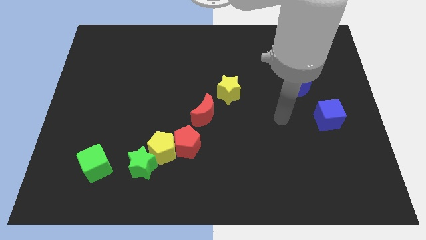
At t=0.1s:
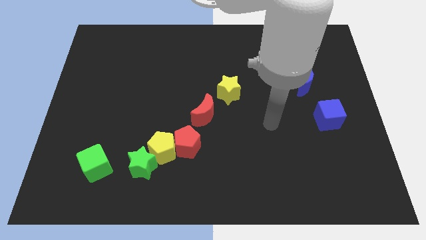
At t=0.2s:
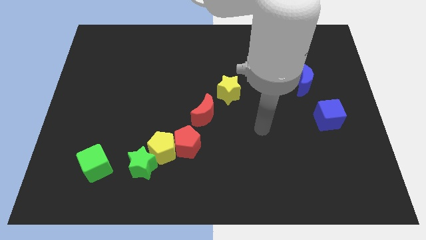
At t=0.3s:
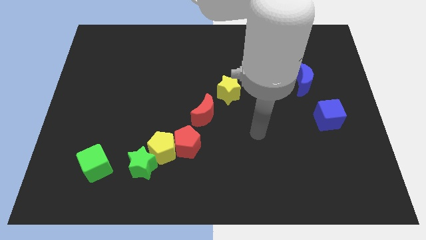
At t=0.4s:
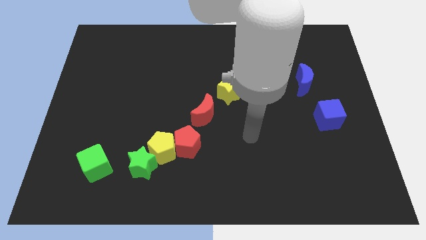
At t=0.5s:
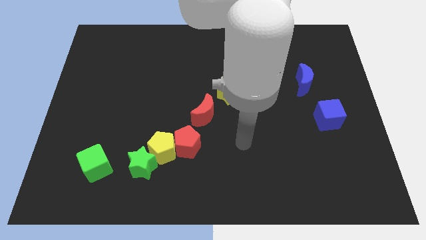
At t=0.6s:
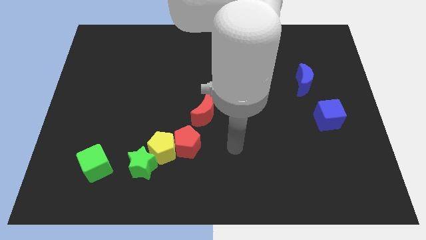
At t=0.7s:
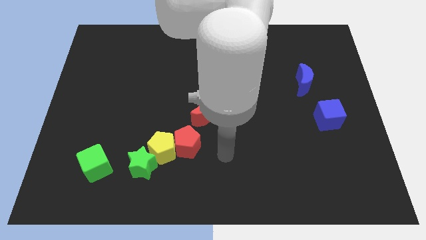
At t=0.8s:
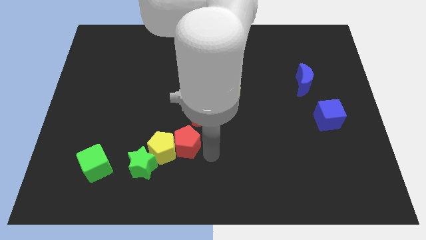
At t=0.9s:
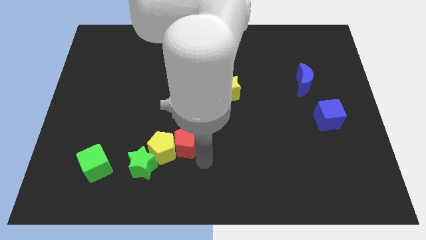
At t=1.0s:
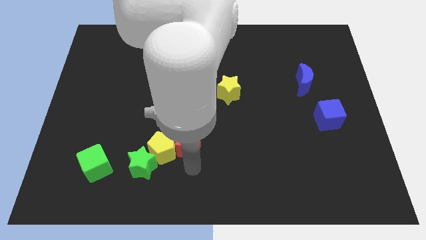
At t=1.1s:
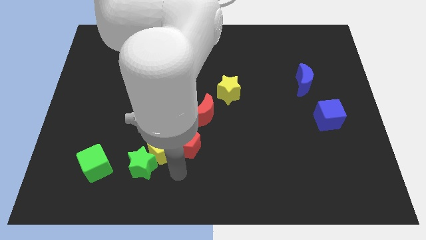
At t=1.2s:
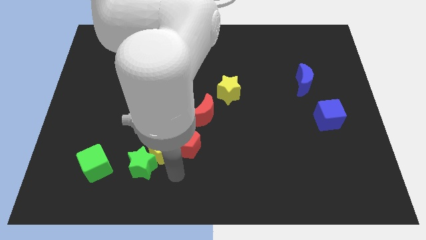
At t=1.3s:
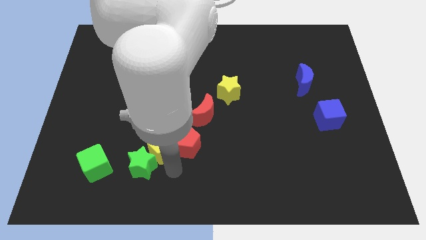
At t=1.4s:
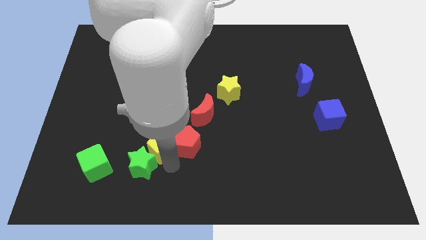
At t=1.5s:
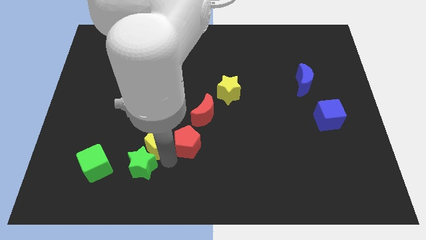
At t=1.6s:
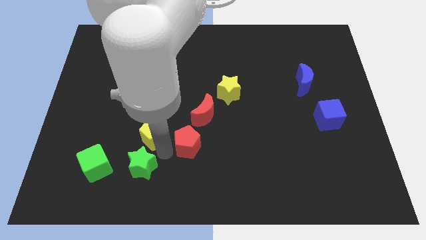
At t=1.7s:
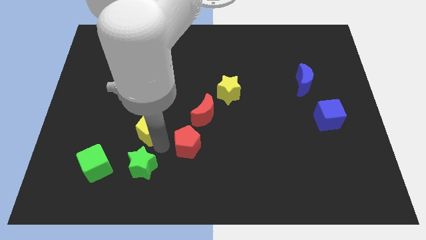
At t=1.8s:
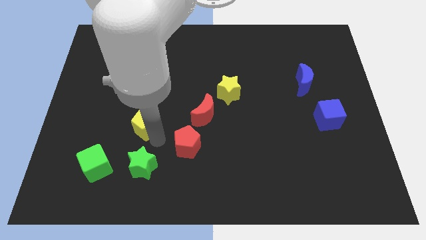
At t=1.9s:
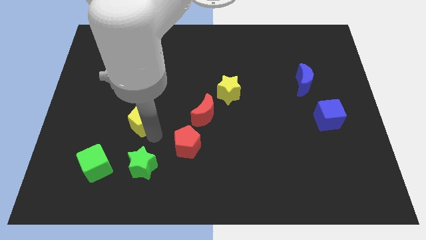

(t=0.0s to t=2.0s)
pull the yellow pentagon apart from the green star and red pentagon

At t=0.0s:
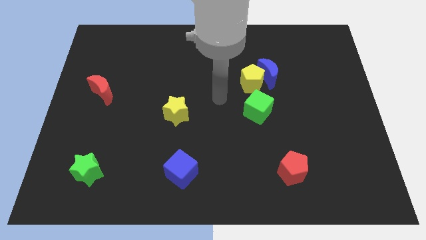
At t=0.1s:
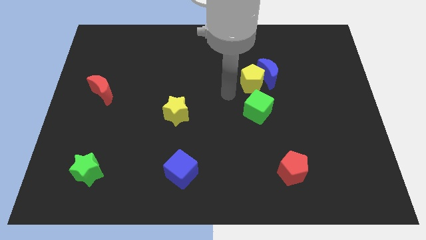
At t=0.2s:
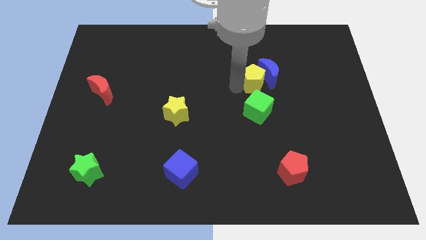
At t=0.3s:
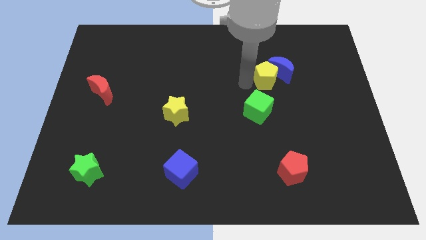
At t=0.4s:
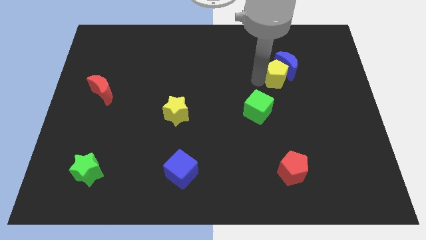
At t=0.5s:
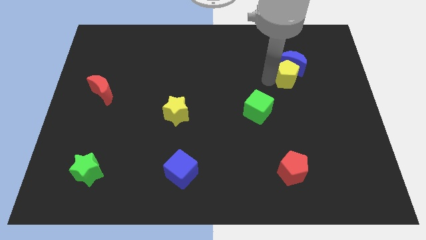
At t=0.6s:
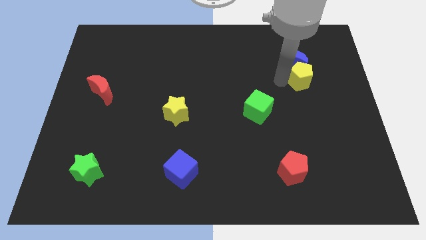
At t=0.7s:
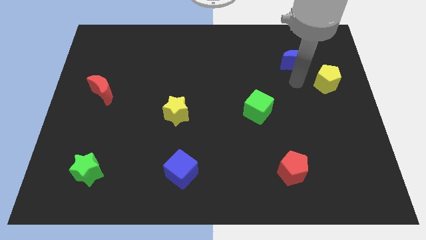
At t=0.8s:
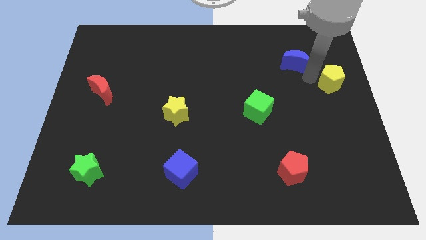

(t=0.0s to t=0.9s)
pull the blue moon apart from the yellow pentagon

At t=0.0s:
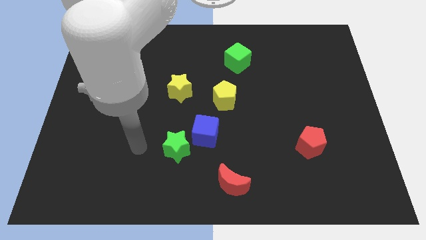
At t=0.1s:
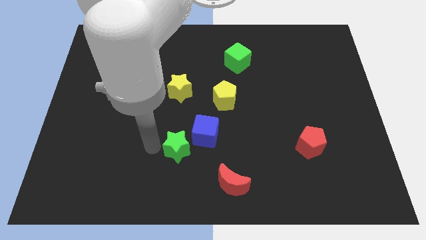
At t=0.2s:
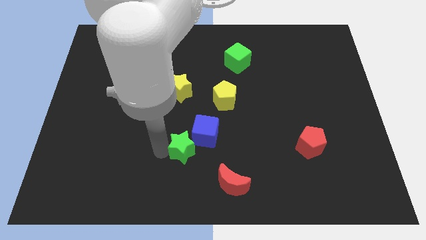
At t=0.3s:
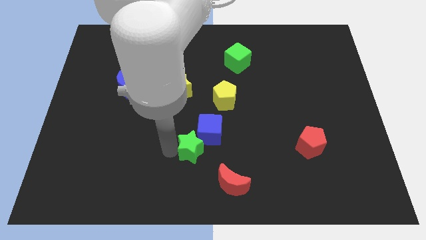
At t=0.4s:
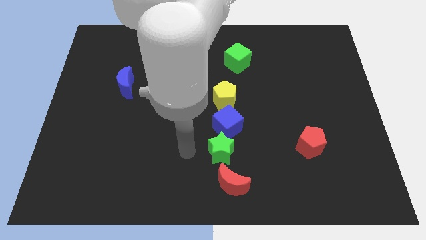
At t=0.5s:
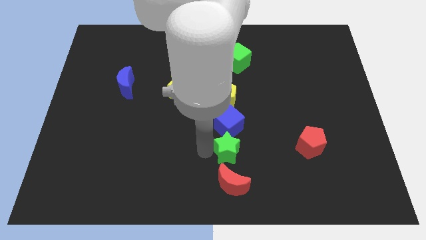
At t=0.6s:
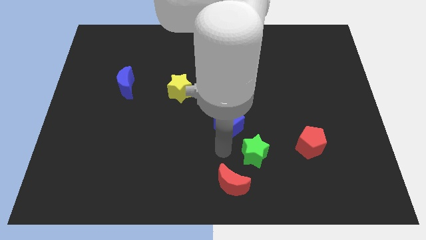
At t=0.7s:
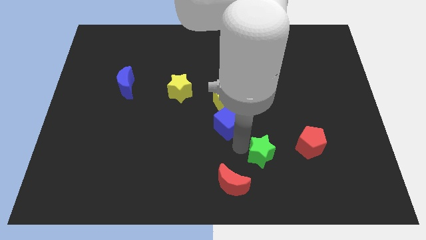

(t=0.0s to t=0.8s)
separate the blue cube from the green star

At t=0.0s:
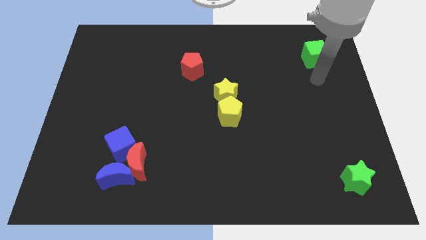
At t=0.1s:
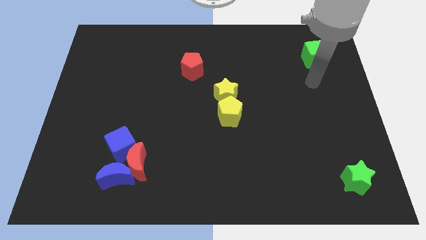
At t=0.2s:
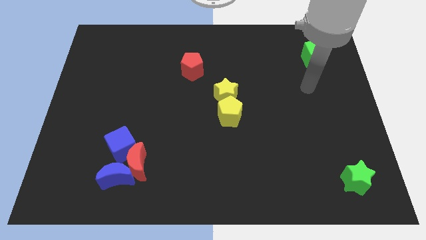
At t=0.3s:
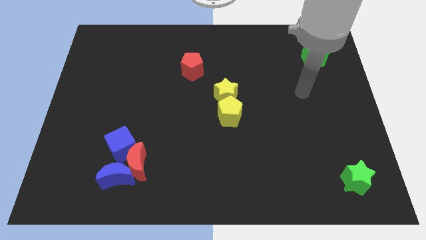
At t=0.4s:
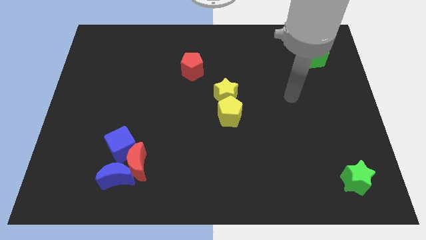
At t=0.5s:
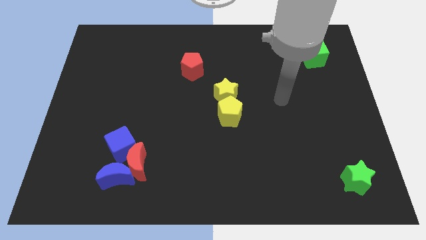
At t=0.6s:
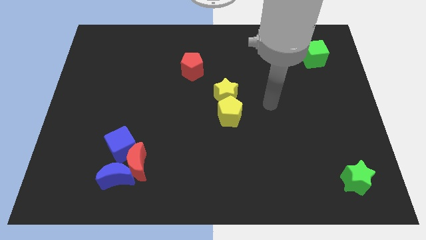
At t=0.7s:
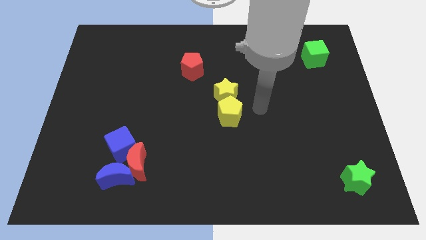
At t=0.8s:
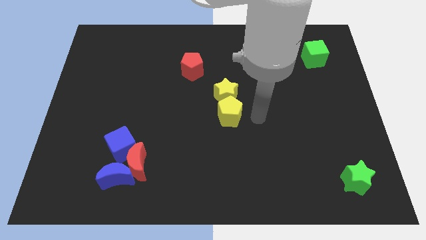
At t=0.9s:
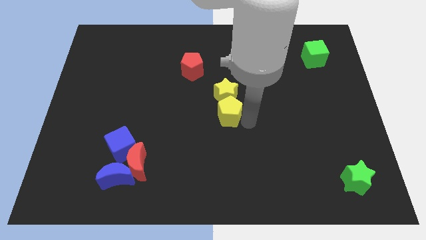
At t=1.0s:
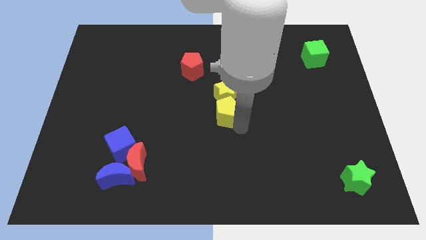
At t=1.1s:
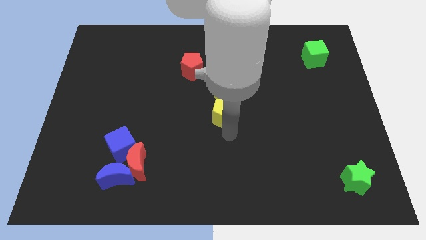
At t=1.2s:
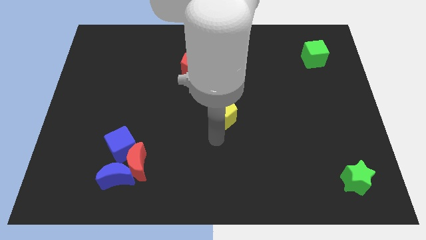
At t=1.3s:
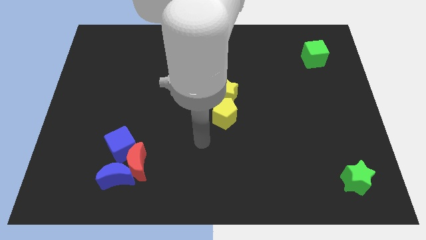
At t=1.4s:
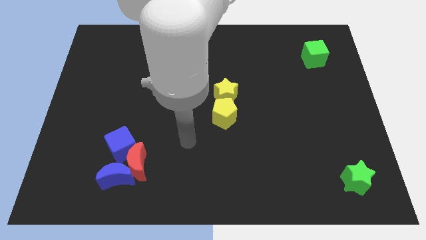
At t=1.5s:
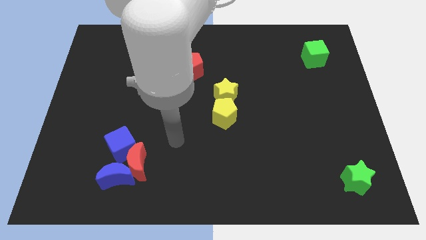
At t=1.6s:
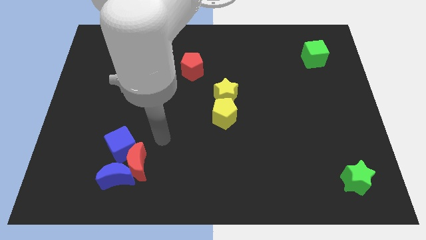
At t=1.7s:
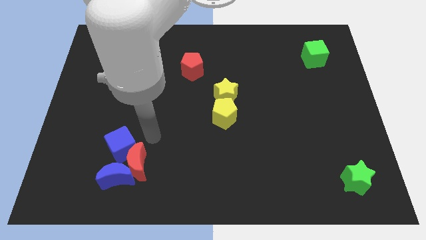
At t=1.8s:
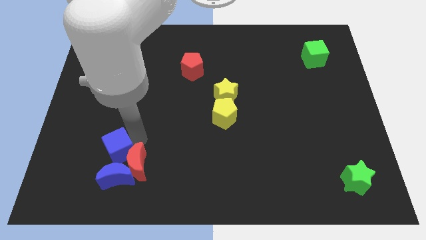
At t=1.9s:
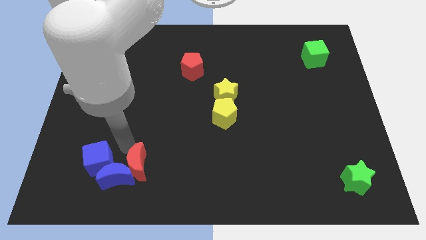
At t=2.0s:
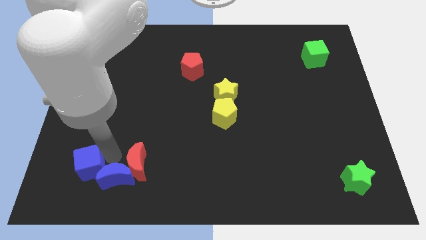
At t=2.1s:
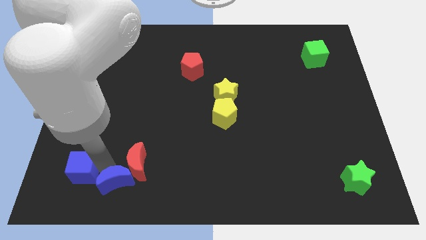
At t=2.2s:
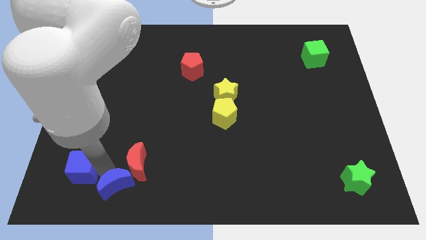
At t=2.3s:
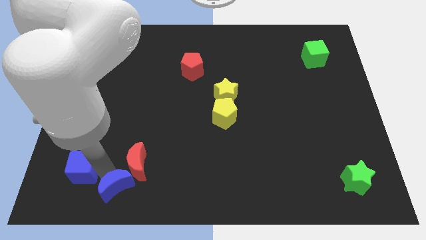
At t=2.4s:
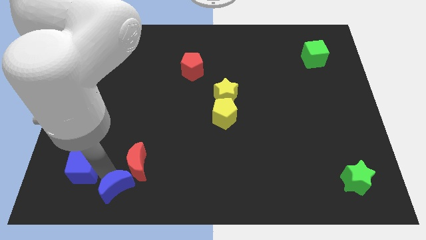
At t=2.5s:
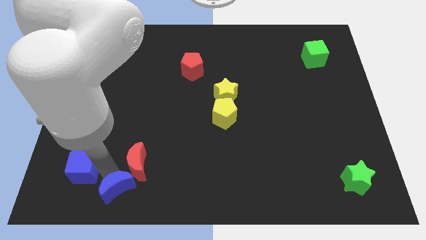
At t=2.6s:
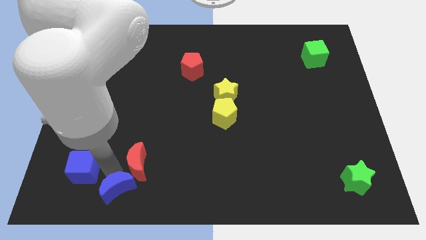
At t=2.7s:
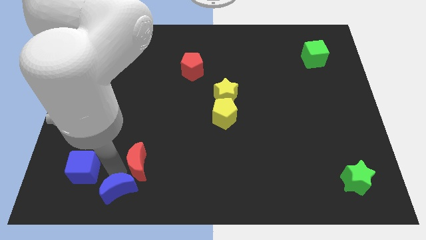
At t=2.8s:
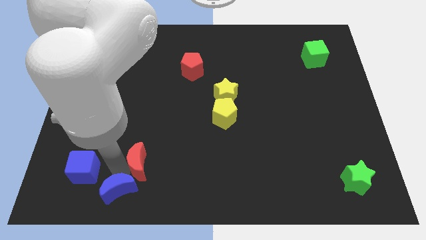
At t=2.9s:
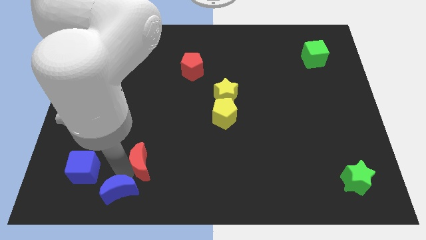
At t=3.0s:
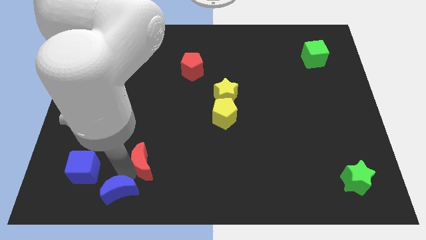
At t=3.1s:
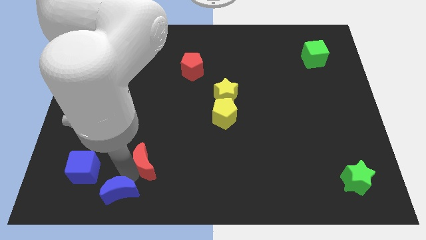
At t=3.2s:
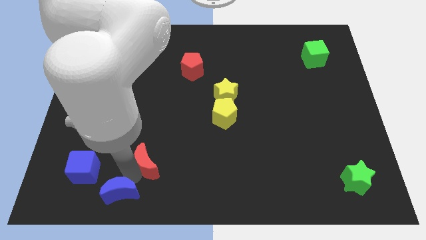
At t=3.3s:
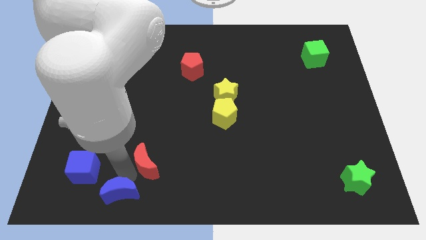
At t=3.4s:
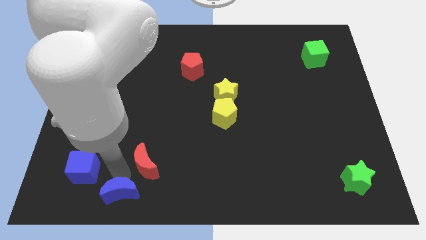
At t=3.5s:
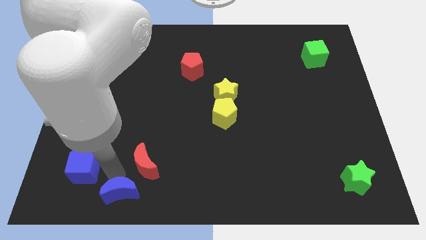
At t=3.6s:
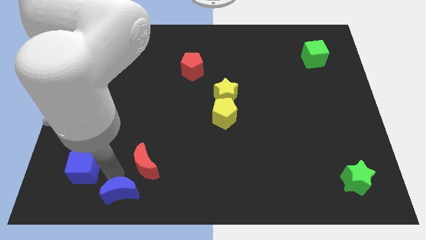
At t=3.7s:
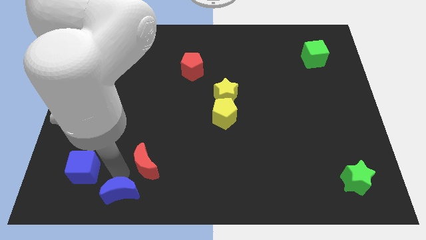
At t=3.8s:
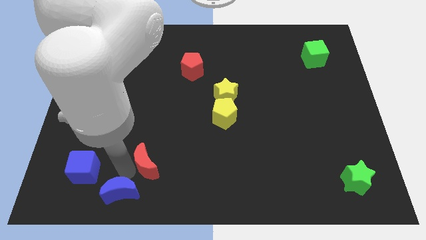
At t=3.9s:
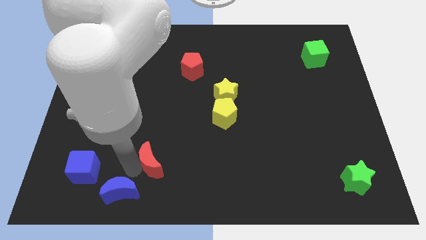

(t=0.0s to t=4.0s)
move the red moon away from the blue moon and blue cube

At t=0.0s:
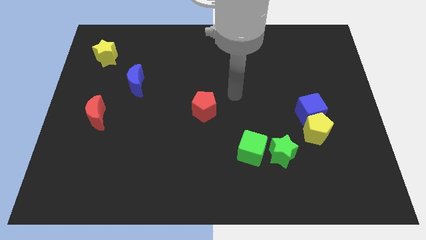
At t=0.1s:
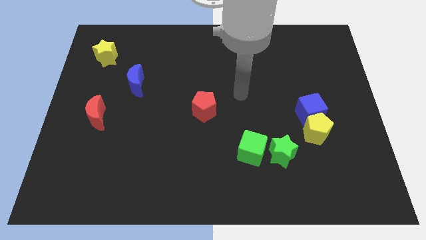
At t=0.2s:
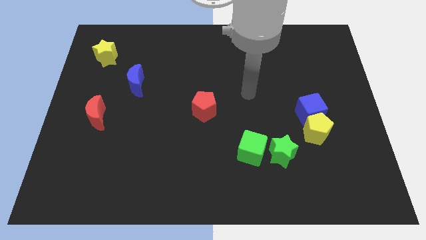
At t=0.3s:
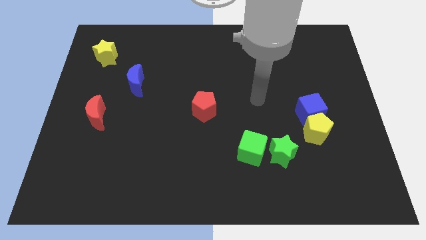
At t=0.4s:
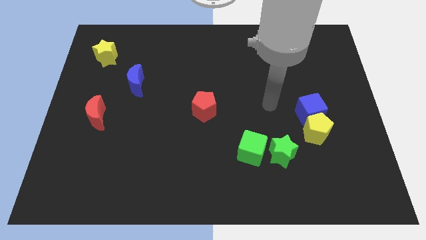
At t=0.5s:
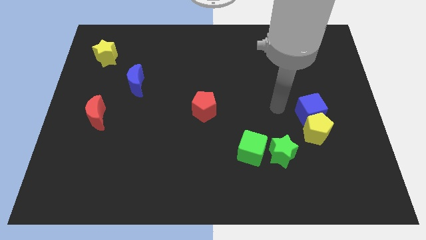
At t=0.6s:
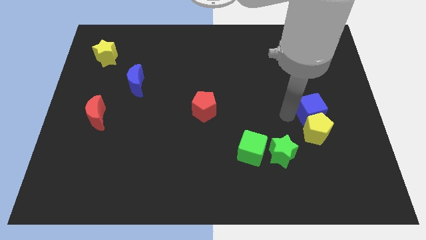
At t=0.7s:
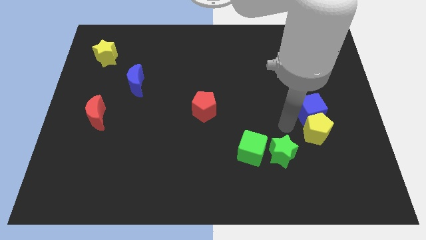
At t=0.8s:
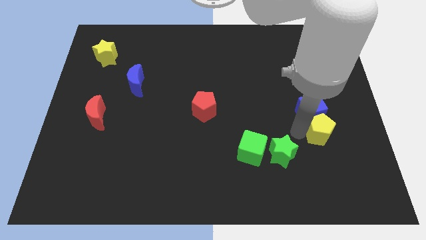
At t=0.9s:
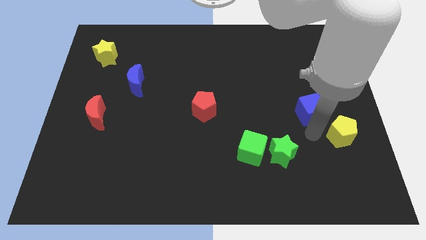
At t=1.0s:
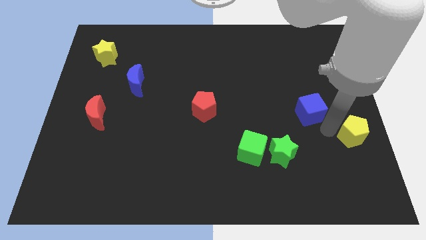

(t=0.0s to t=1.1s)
pull the blue cube apart from the yellow pentagon

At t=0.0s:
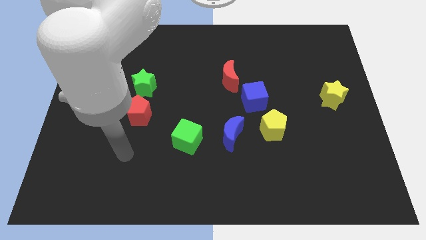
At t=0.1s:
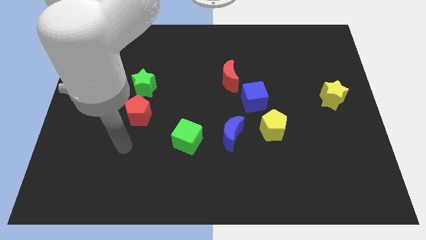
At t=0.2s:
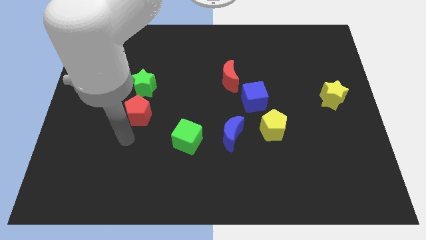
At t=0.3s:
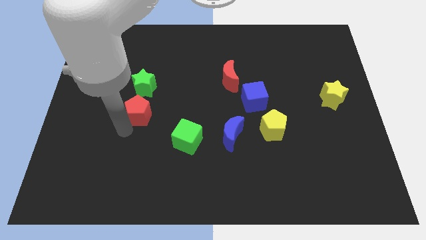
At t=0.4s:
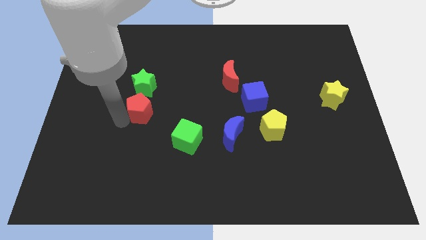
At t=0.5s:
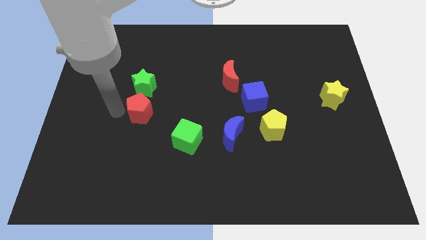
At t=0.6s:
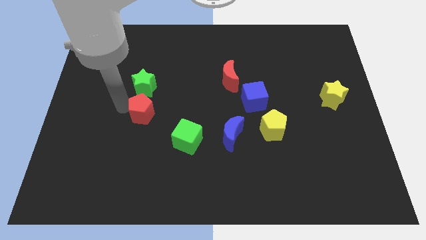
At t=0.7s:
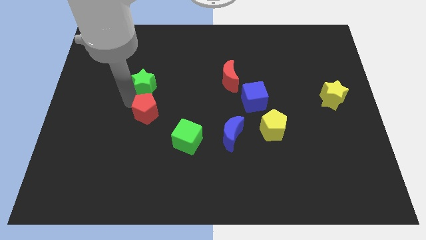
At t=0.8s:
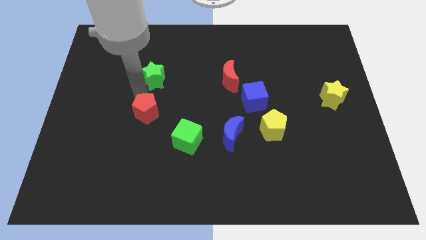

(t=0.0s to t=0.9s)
pull the red pentagon apart from the green star
